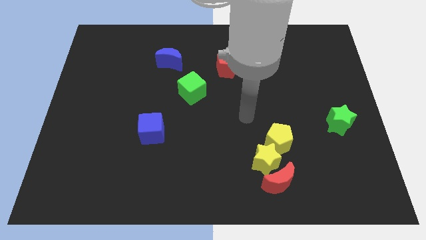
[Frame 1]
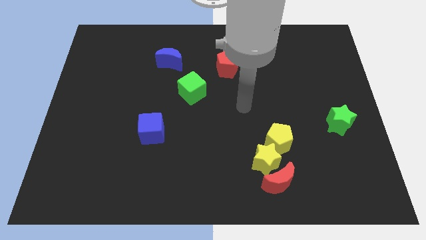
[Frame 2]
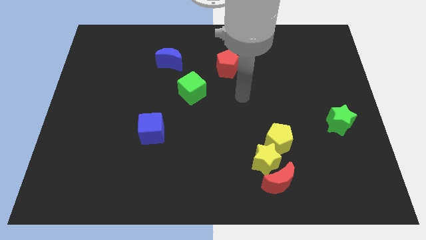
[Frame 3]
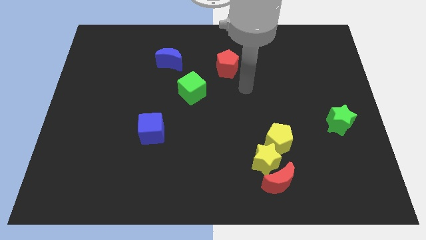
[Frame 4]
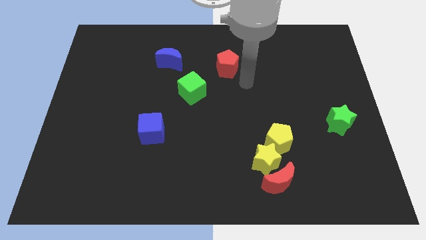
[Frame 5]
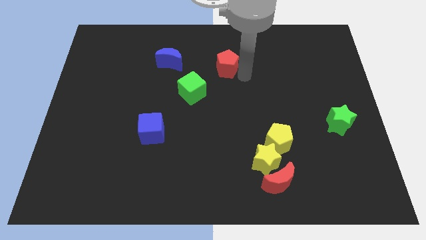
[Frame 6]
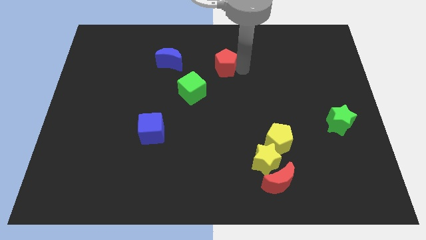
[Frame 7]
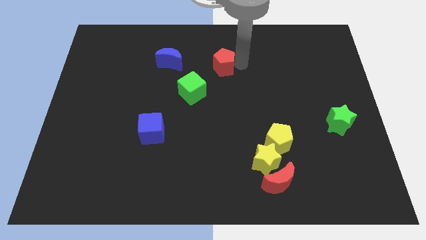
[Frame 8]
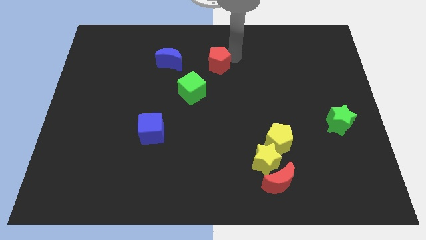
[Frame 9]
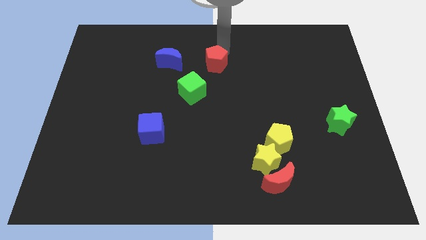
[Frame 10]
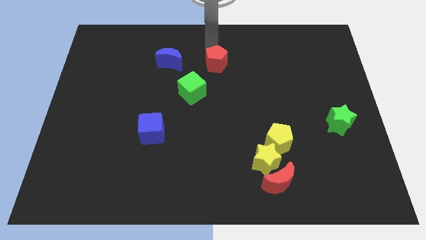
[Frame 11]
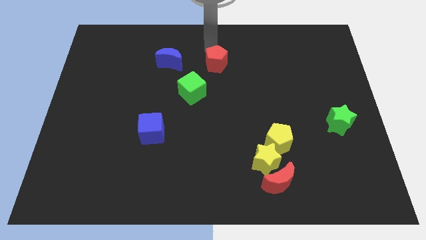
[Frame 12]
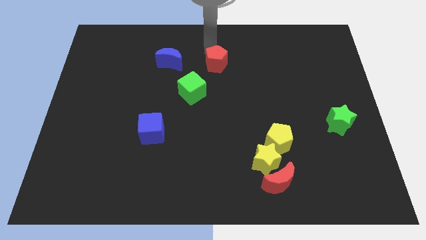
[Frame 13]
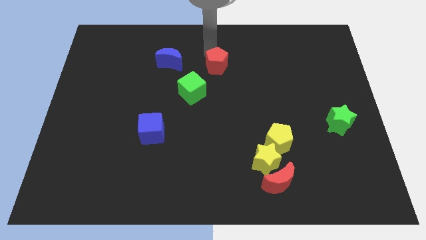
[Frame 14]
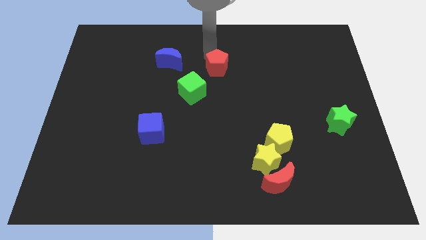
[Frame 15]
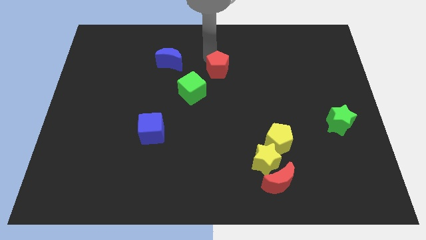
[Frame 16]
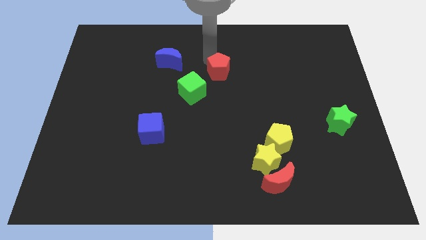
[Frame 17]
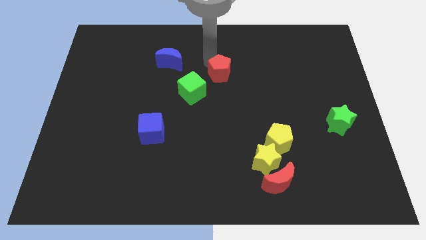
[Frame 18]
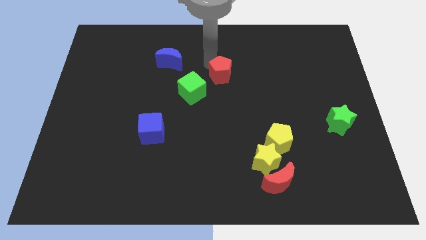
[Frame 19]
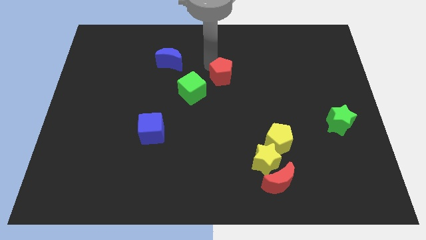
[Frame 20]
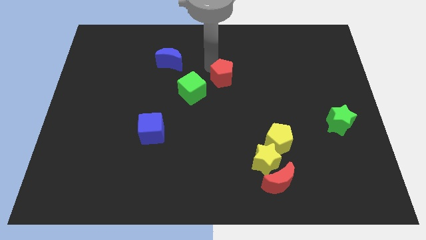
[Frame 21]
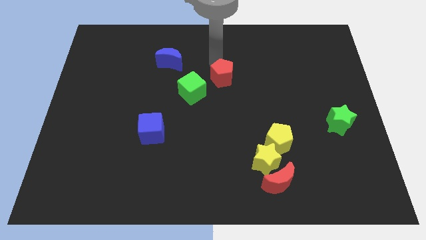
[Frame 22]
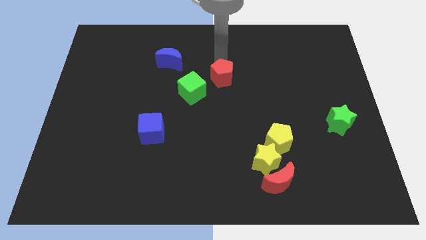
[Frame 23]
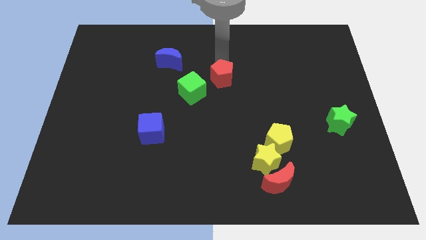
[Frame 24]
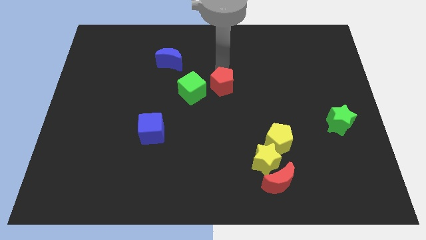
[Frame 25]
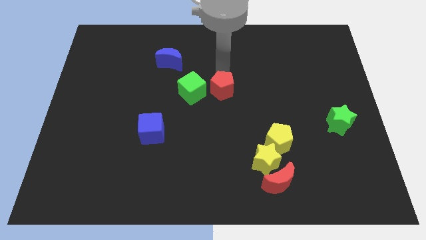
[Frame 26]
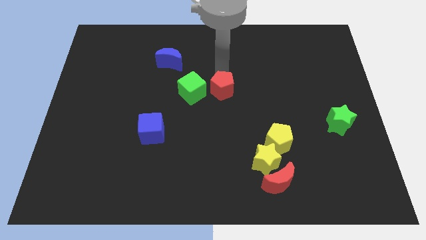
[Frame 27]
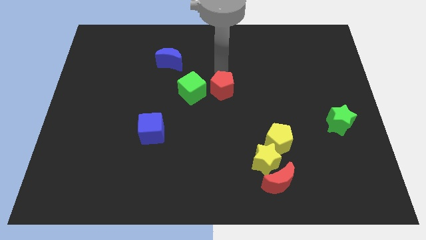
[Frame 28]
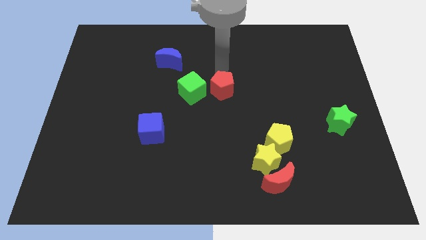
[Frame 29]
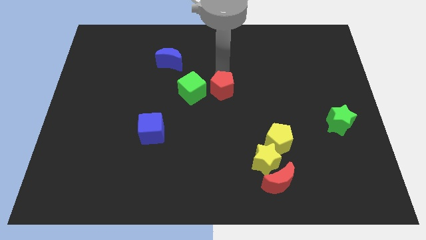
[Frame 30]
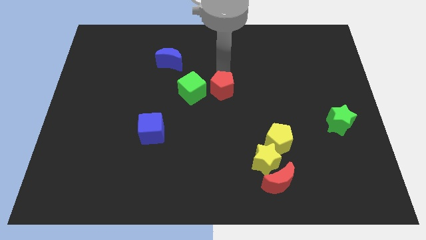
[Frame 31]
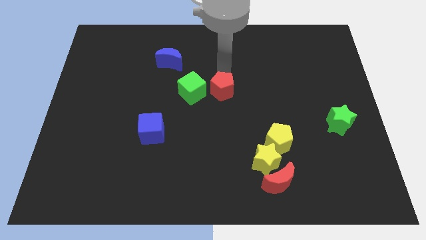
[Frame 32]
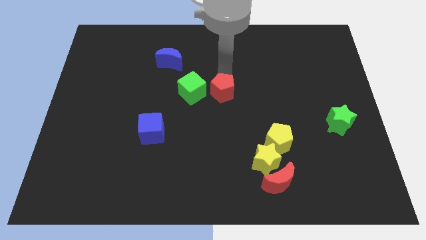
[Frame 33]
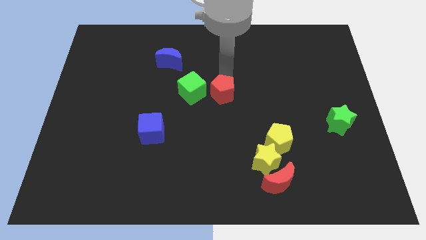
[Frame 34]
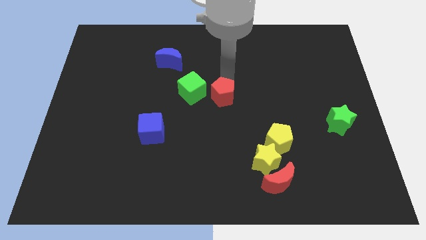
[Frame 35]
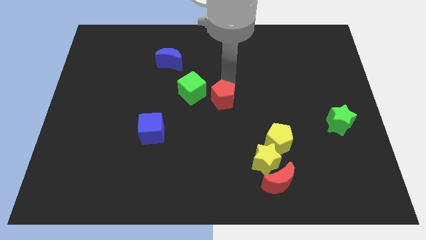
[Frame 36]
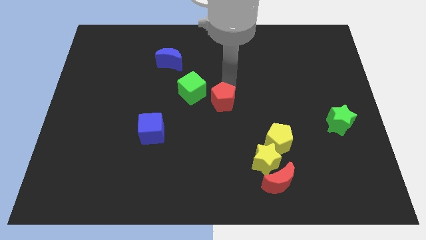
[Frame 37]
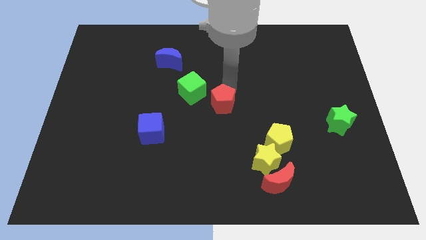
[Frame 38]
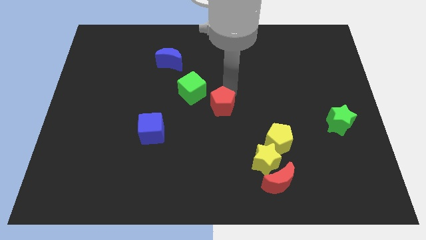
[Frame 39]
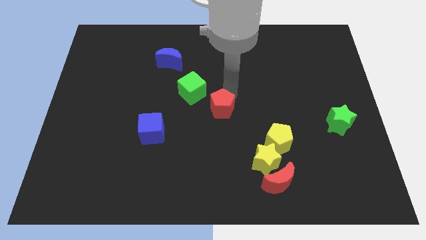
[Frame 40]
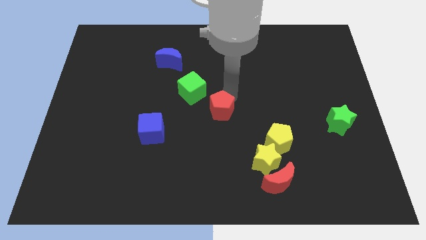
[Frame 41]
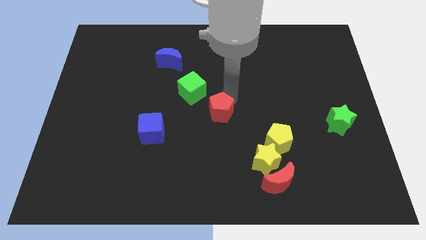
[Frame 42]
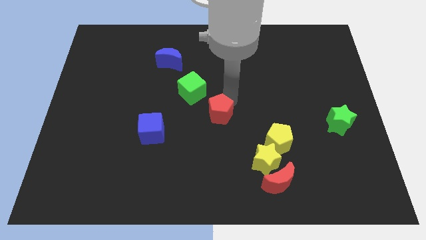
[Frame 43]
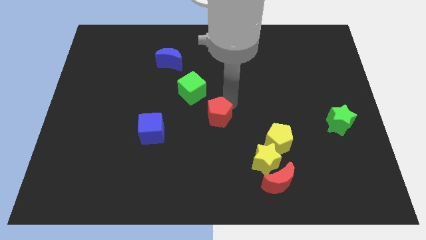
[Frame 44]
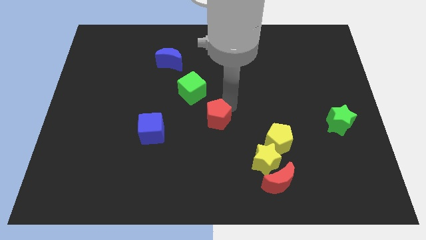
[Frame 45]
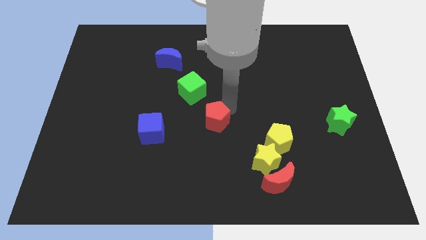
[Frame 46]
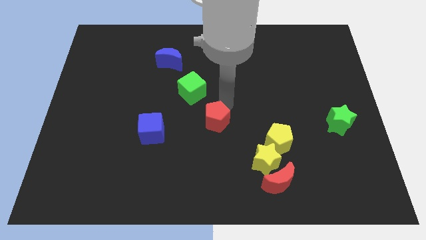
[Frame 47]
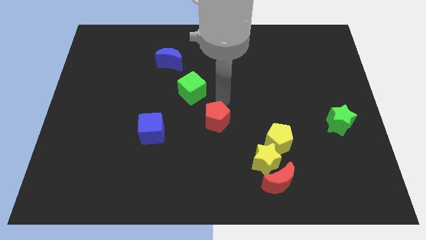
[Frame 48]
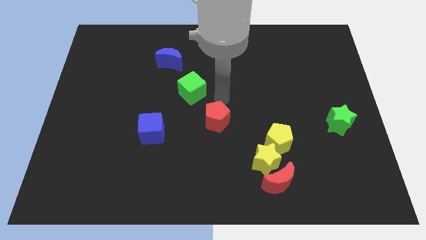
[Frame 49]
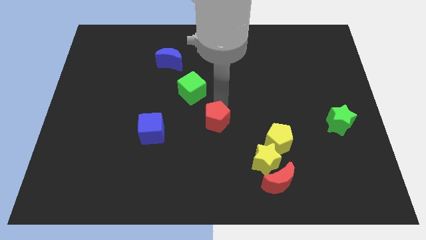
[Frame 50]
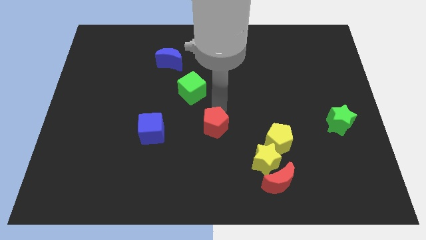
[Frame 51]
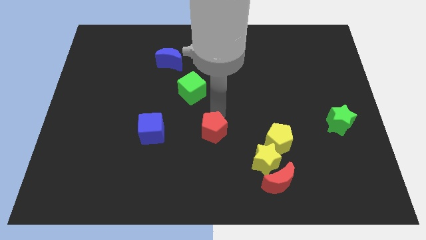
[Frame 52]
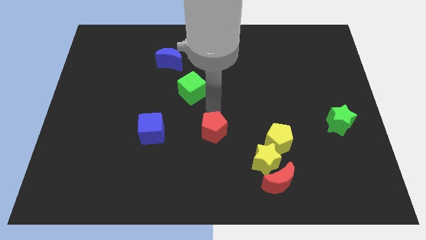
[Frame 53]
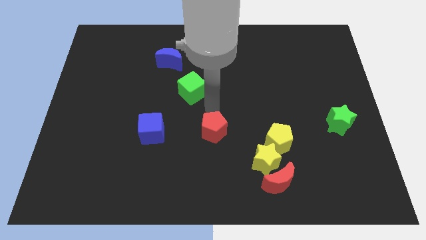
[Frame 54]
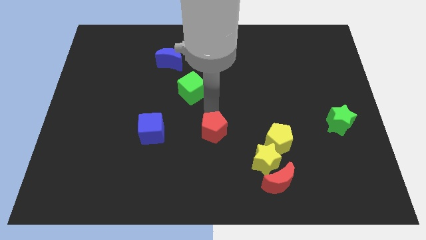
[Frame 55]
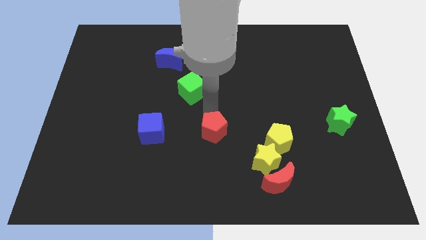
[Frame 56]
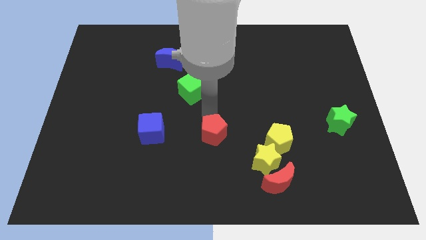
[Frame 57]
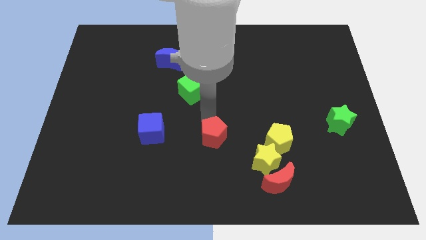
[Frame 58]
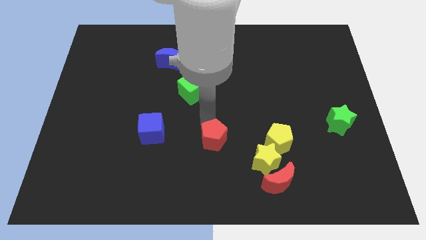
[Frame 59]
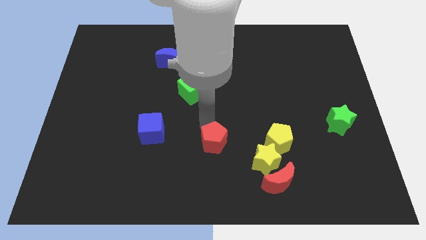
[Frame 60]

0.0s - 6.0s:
push the red pentagon to the left of the yellow star
